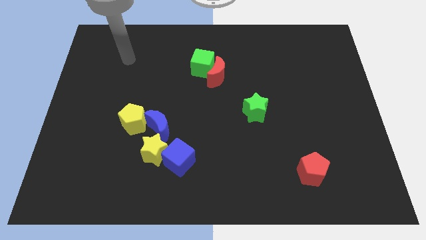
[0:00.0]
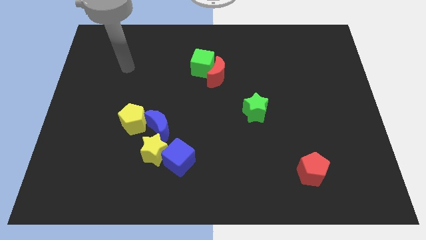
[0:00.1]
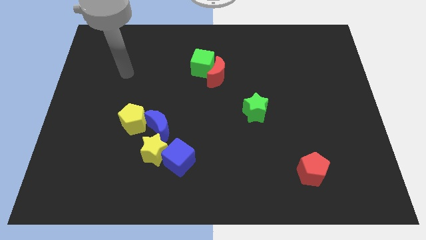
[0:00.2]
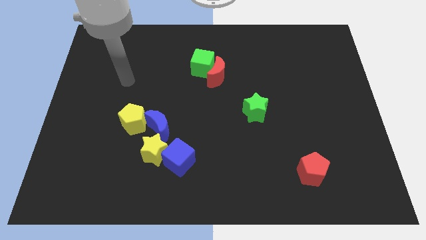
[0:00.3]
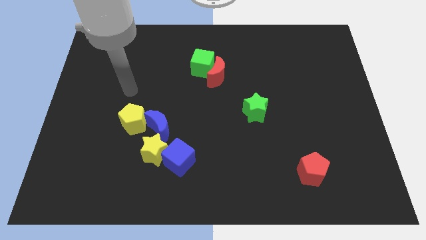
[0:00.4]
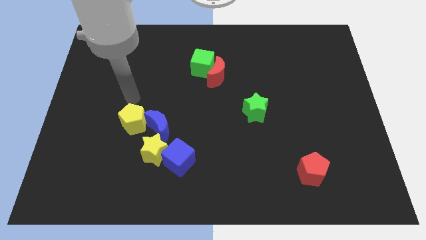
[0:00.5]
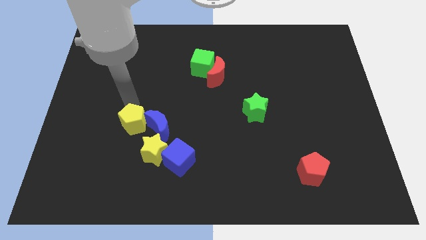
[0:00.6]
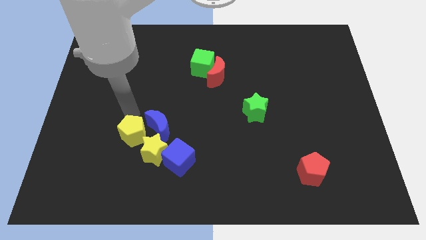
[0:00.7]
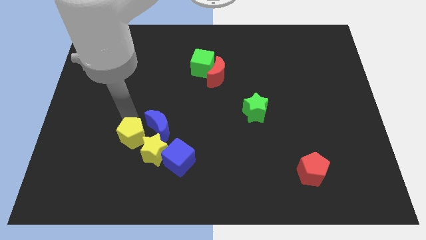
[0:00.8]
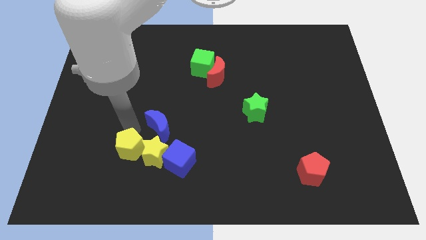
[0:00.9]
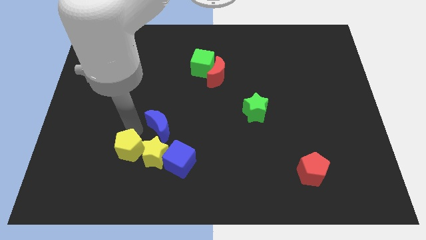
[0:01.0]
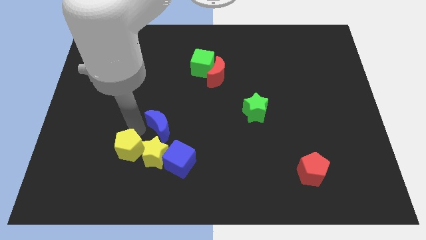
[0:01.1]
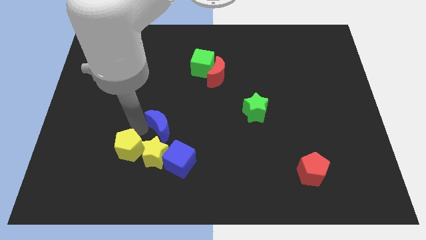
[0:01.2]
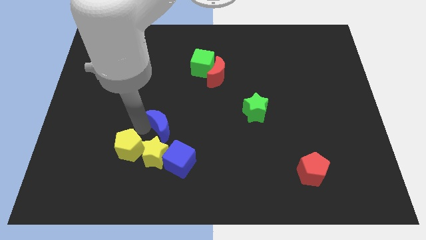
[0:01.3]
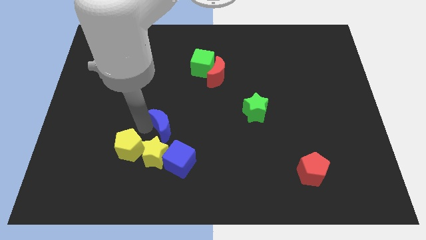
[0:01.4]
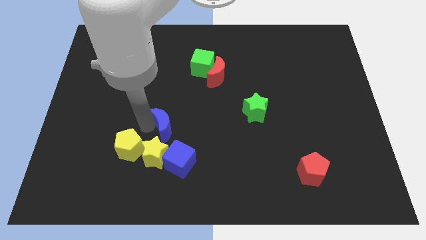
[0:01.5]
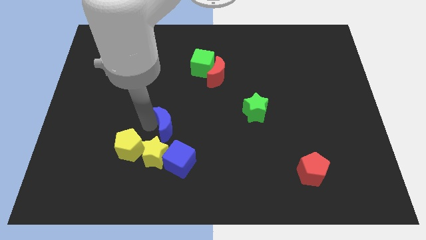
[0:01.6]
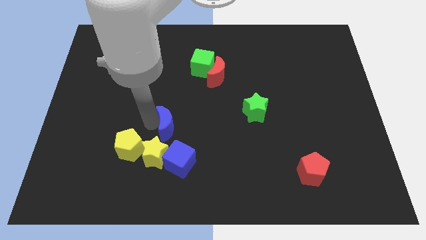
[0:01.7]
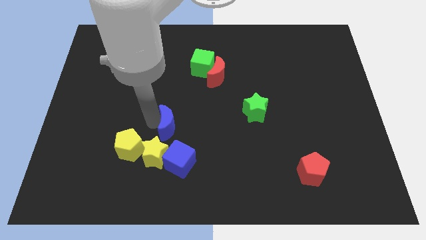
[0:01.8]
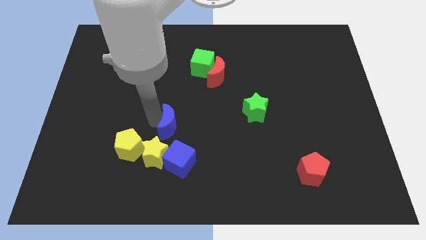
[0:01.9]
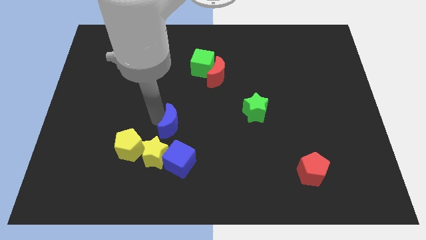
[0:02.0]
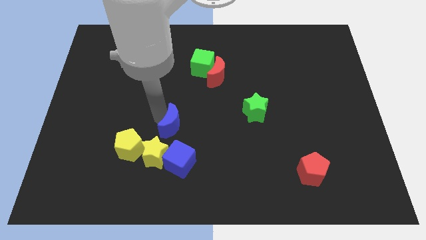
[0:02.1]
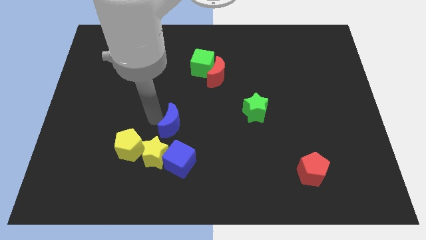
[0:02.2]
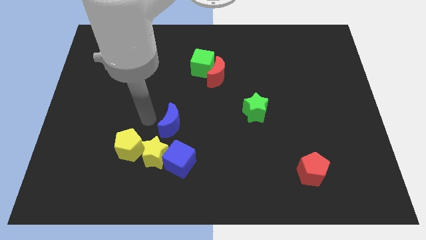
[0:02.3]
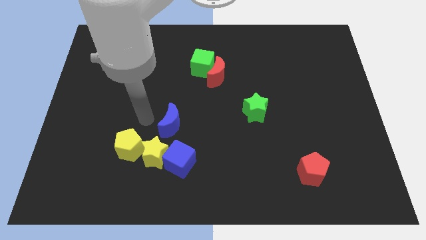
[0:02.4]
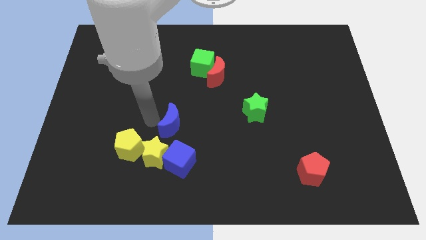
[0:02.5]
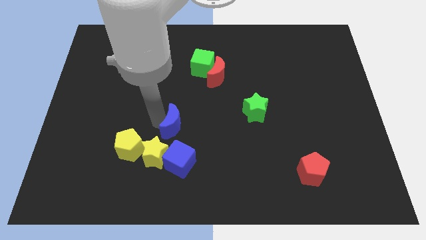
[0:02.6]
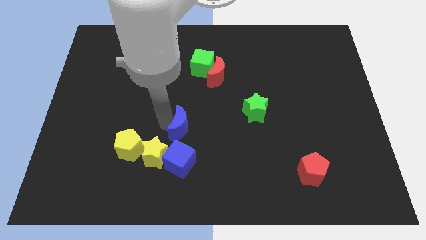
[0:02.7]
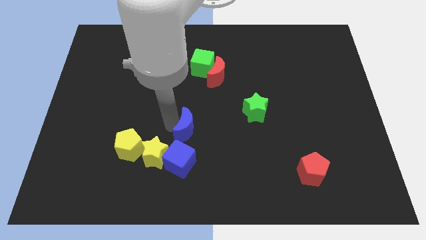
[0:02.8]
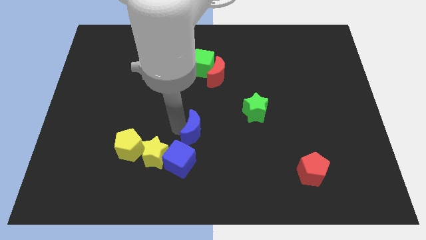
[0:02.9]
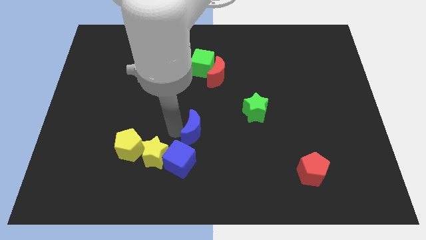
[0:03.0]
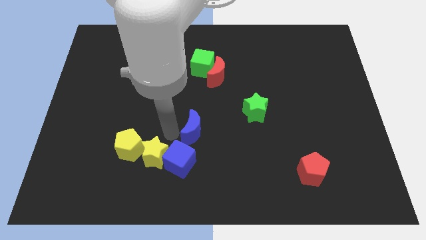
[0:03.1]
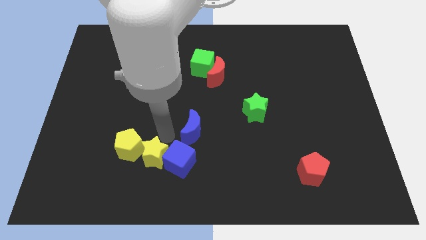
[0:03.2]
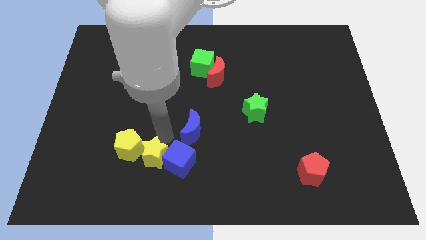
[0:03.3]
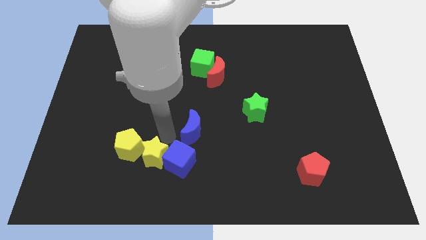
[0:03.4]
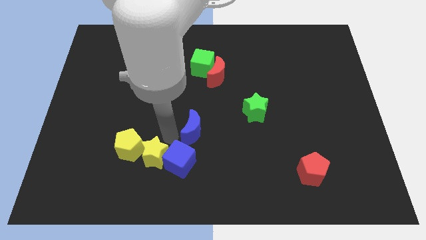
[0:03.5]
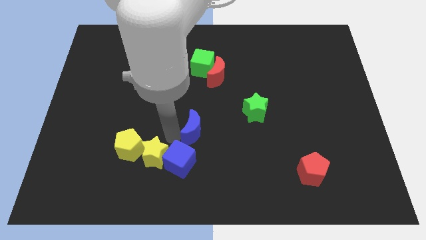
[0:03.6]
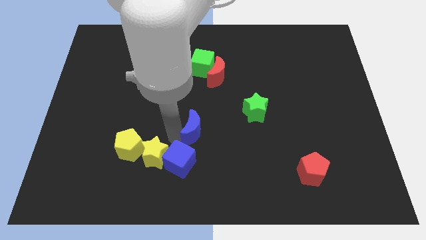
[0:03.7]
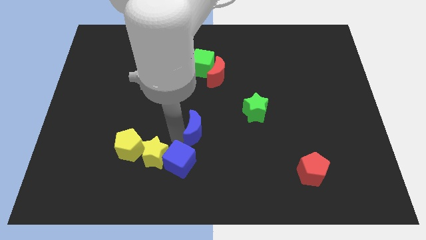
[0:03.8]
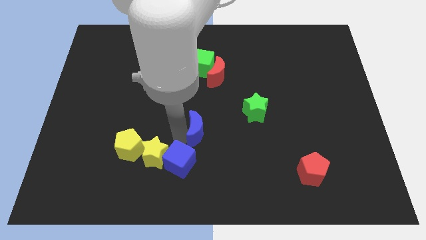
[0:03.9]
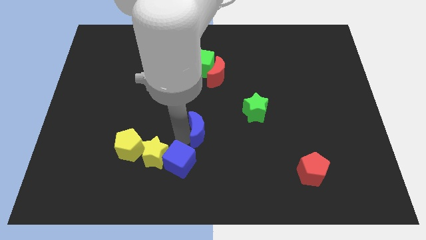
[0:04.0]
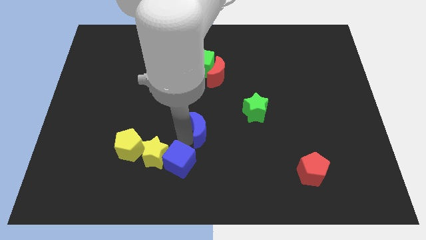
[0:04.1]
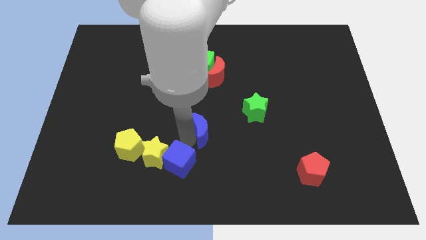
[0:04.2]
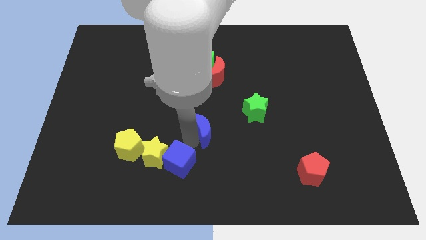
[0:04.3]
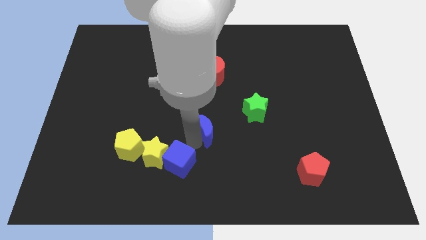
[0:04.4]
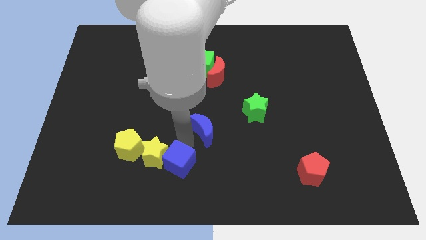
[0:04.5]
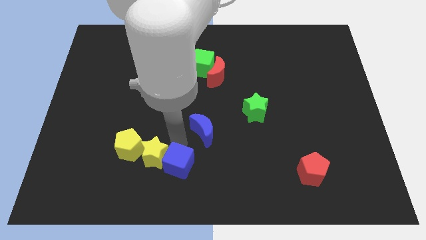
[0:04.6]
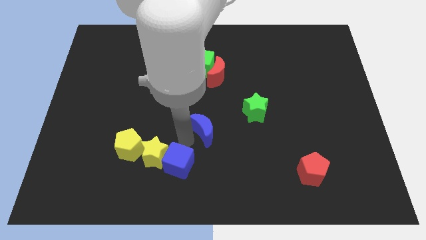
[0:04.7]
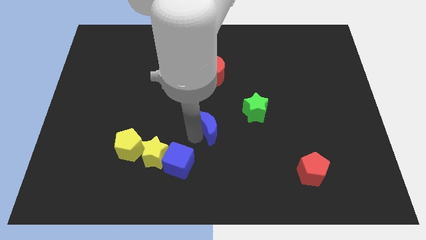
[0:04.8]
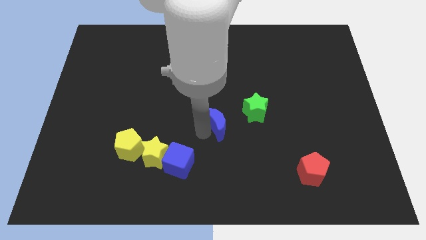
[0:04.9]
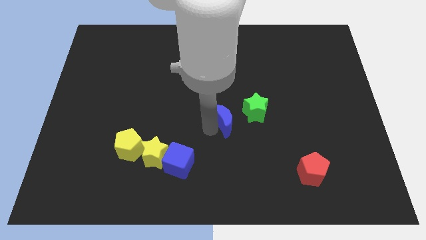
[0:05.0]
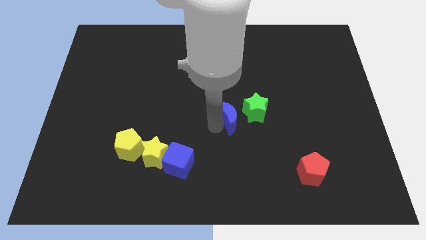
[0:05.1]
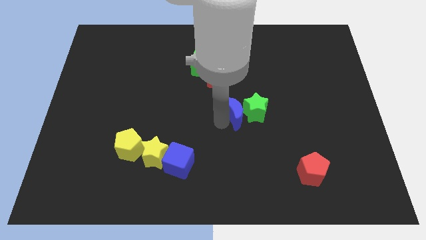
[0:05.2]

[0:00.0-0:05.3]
push the blue moon close to the green star

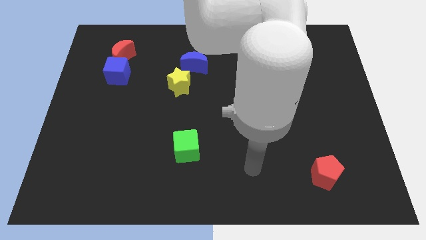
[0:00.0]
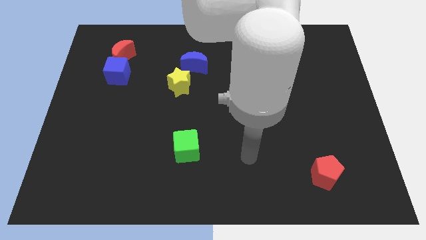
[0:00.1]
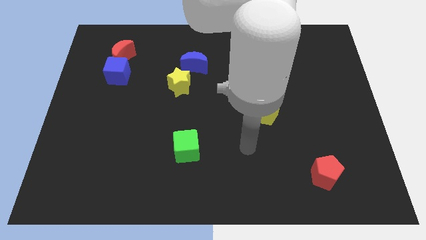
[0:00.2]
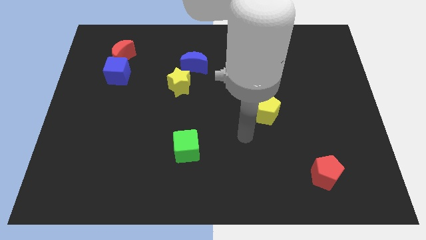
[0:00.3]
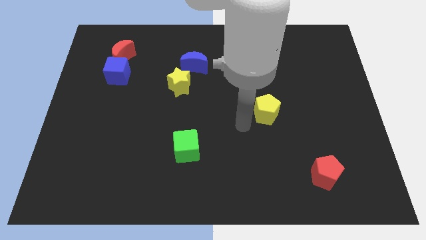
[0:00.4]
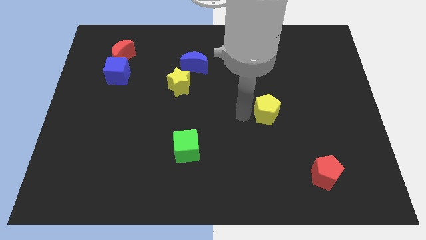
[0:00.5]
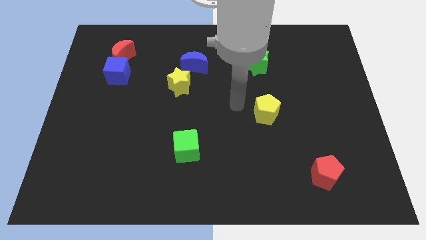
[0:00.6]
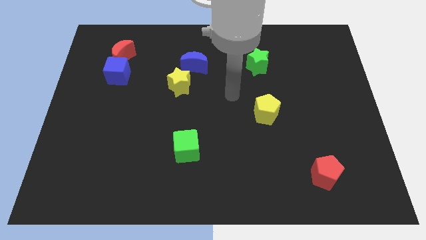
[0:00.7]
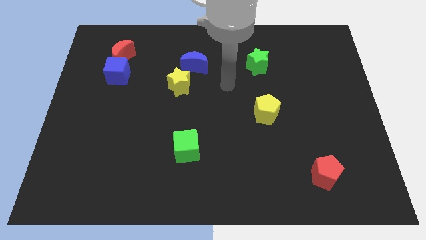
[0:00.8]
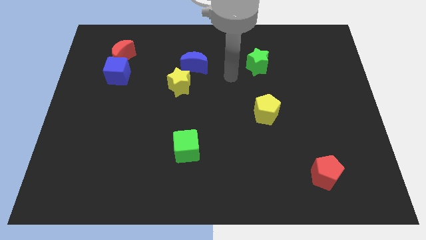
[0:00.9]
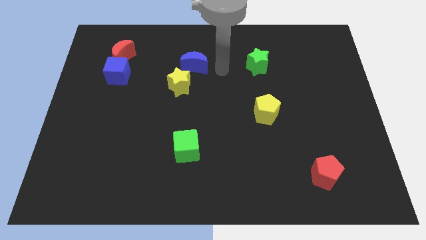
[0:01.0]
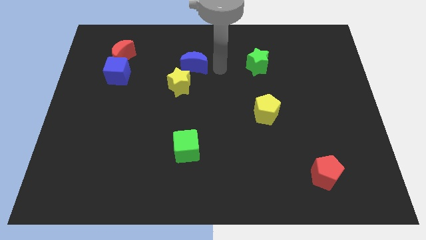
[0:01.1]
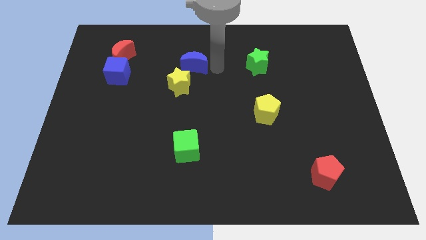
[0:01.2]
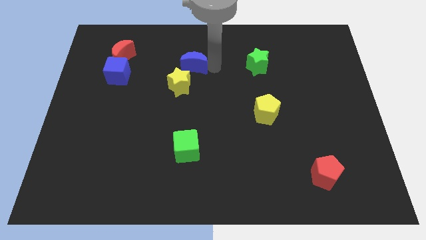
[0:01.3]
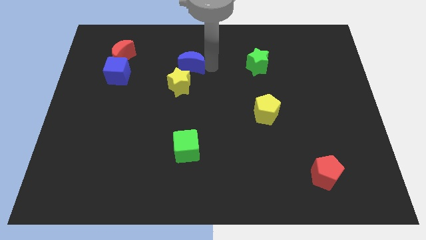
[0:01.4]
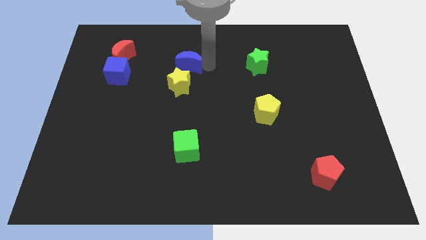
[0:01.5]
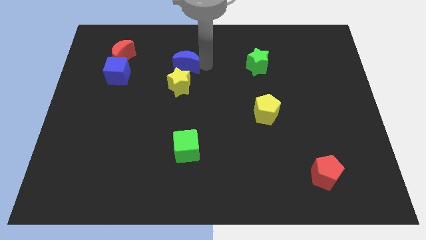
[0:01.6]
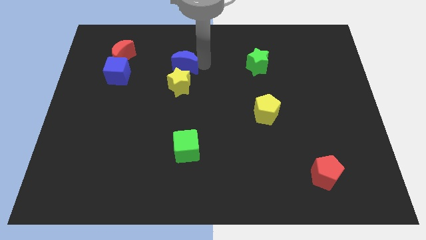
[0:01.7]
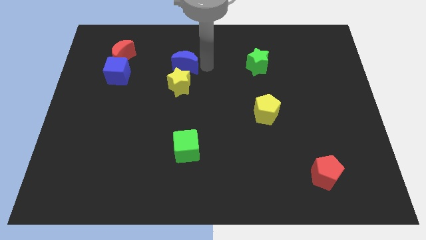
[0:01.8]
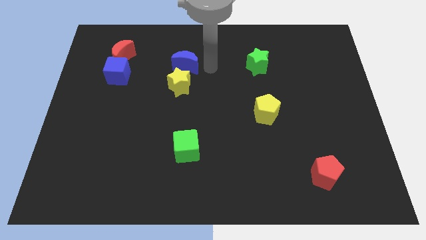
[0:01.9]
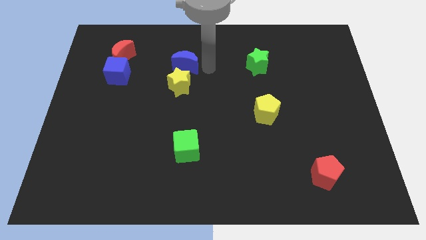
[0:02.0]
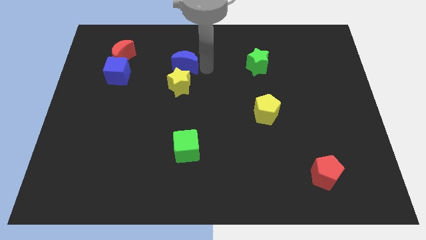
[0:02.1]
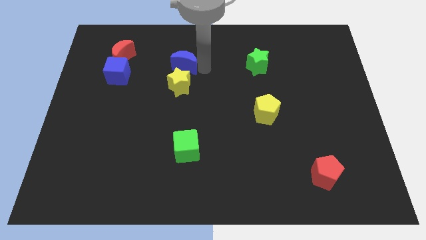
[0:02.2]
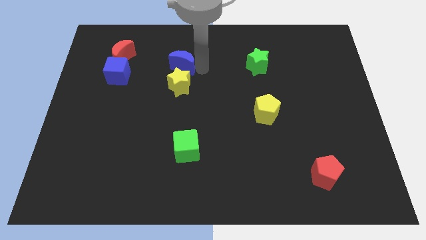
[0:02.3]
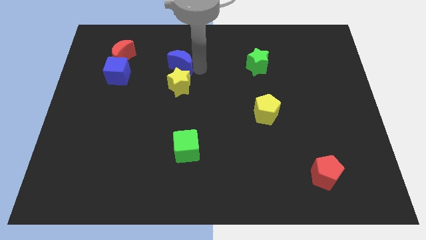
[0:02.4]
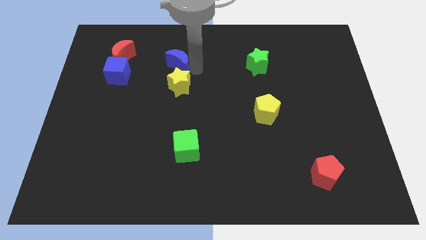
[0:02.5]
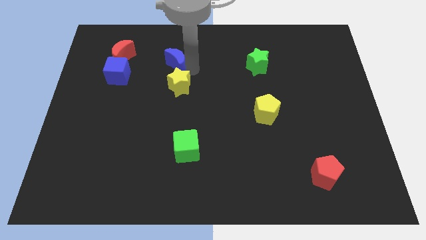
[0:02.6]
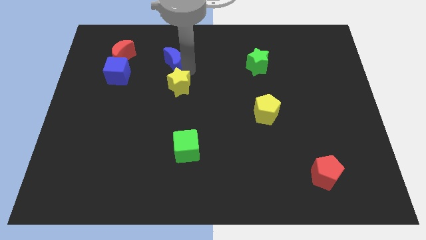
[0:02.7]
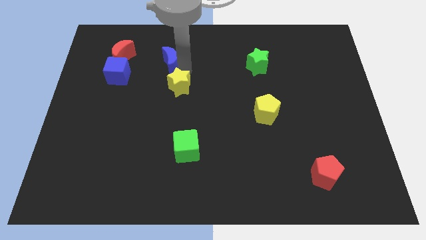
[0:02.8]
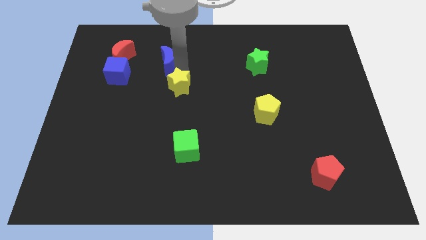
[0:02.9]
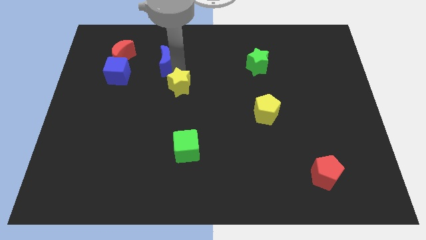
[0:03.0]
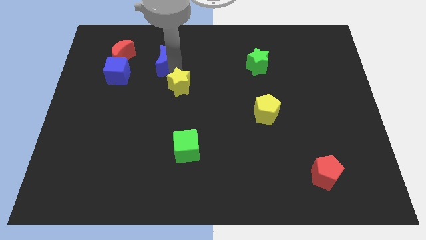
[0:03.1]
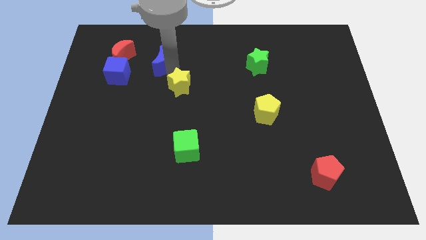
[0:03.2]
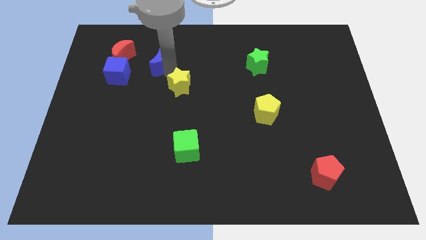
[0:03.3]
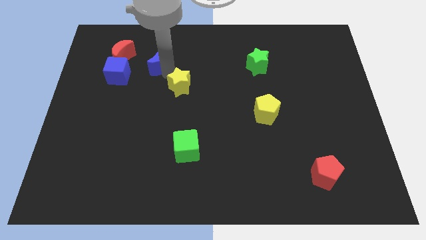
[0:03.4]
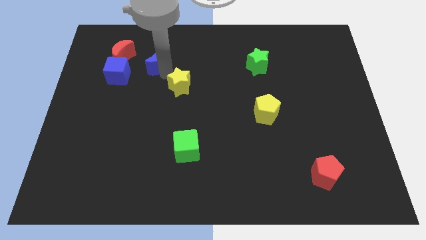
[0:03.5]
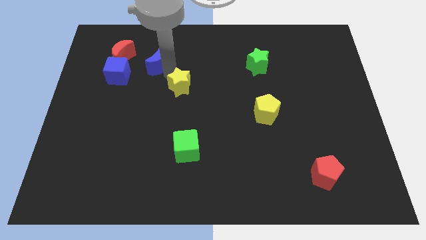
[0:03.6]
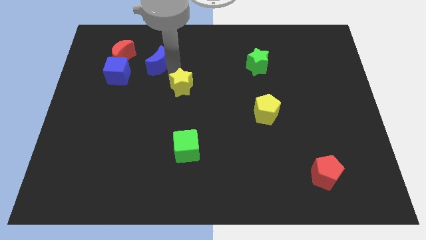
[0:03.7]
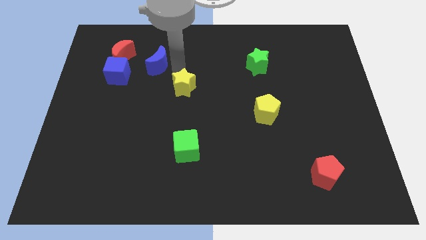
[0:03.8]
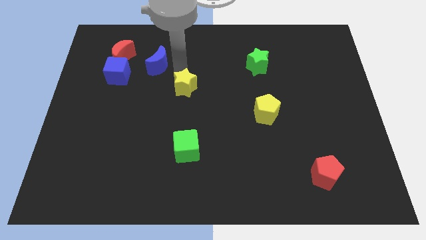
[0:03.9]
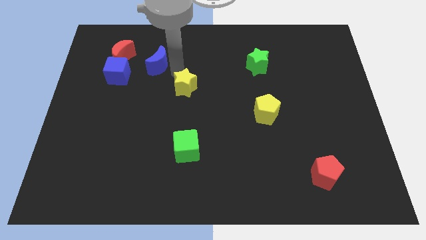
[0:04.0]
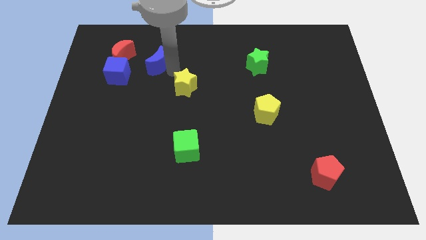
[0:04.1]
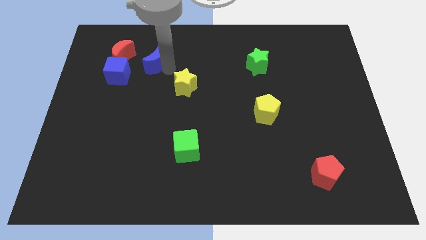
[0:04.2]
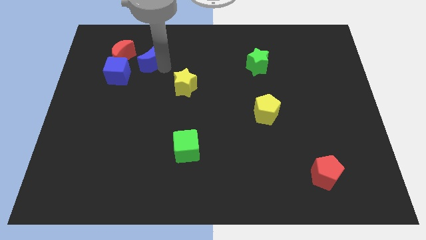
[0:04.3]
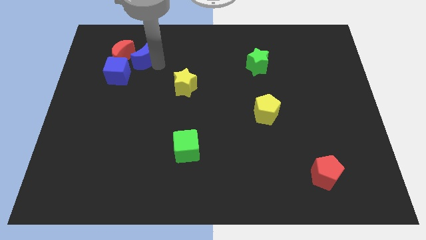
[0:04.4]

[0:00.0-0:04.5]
put the blue moon to the red moon
